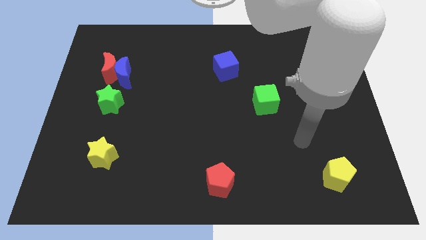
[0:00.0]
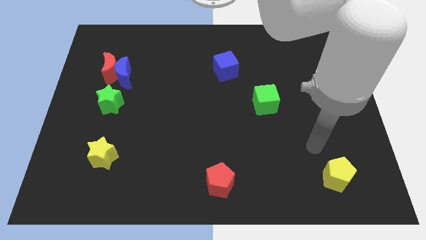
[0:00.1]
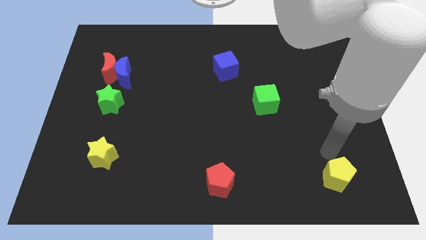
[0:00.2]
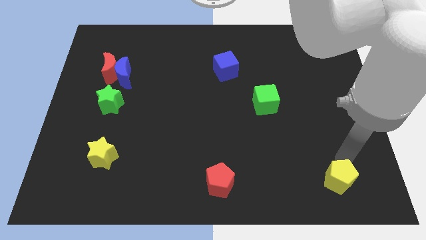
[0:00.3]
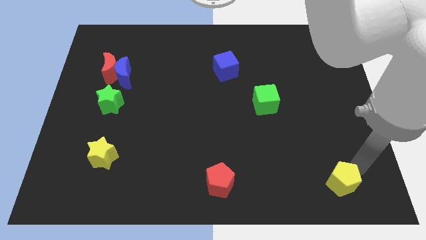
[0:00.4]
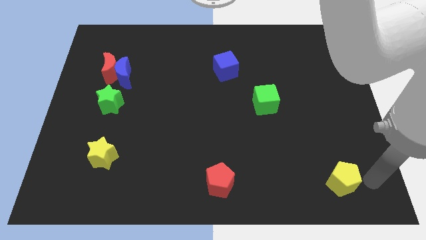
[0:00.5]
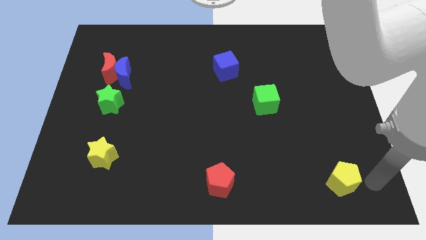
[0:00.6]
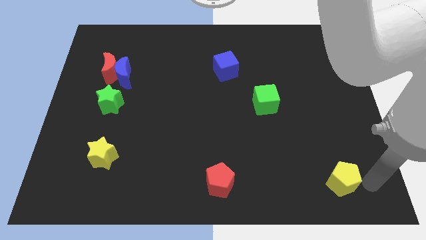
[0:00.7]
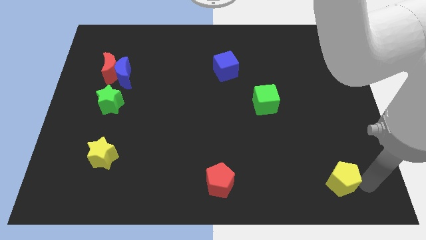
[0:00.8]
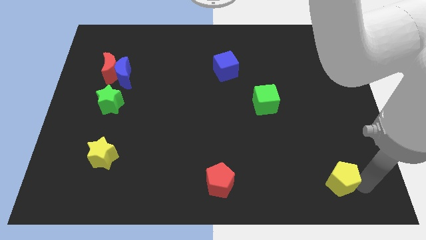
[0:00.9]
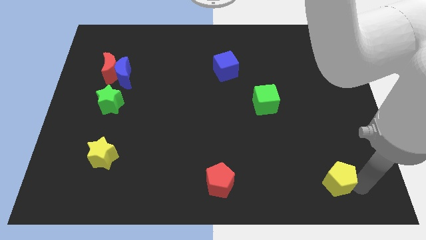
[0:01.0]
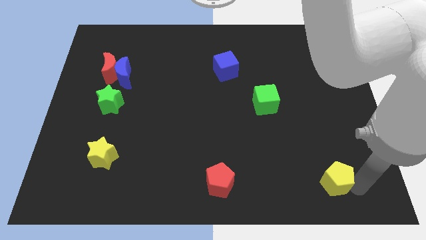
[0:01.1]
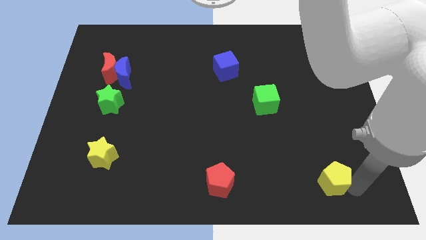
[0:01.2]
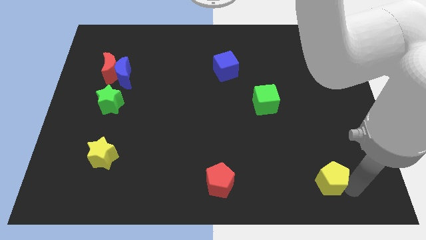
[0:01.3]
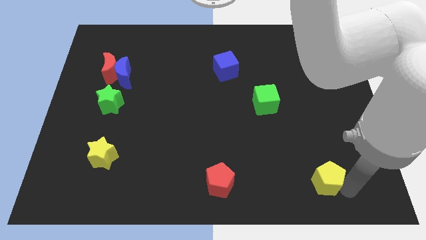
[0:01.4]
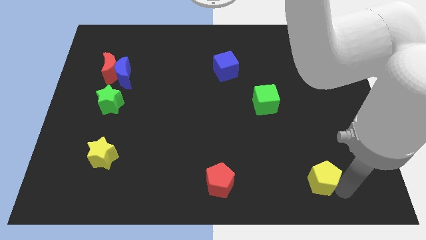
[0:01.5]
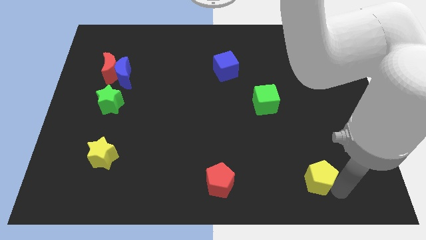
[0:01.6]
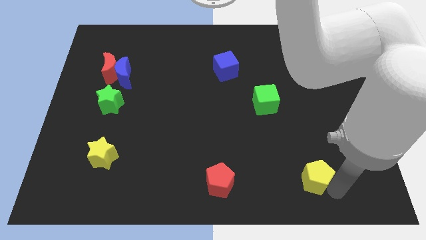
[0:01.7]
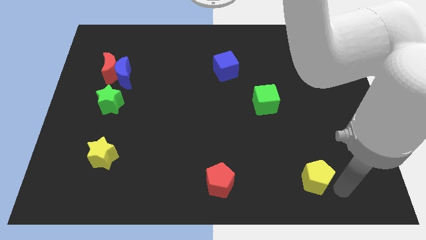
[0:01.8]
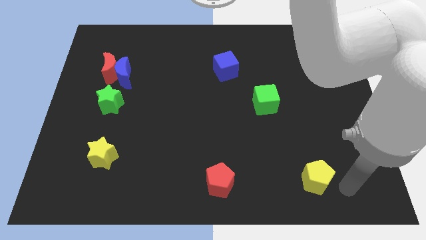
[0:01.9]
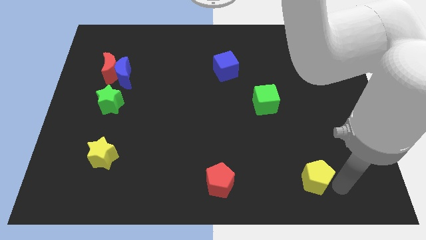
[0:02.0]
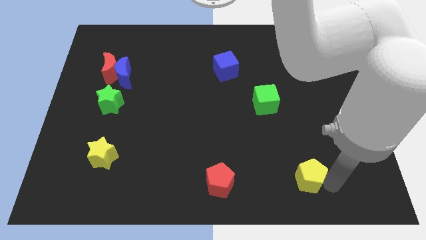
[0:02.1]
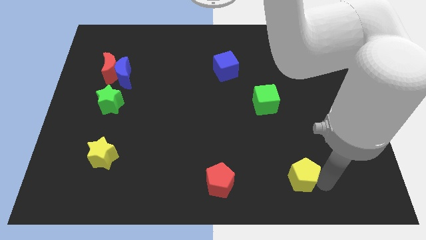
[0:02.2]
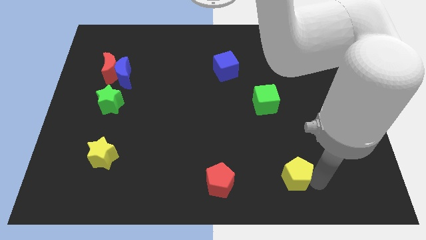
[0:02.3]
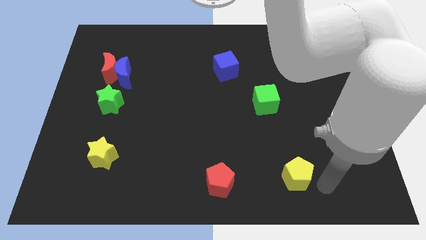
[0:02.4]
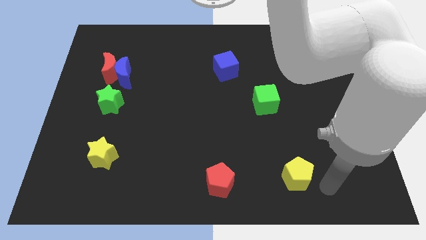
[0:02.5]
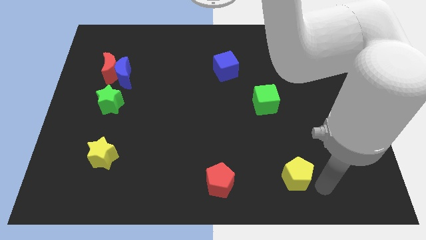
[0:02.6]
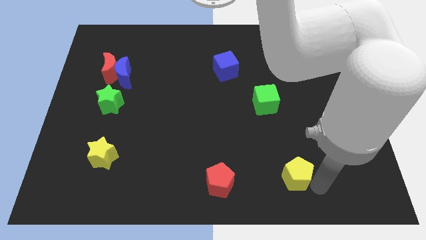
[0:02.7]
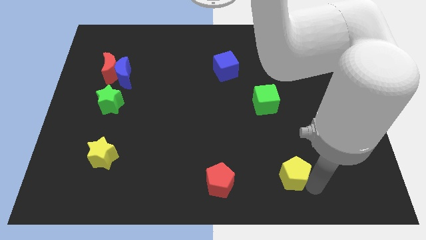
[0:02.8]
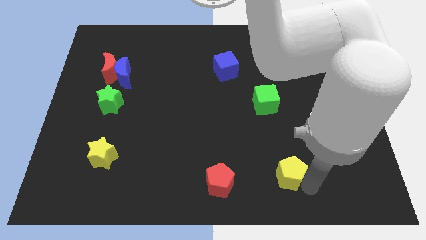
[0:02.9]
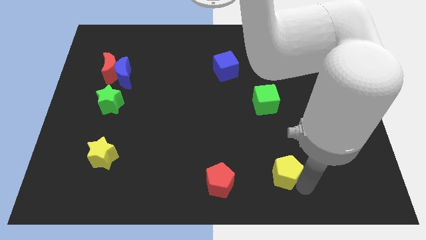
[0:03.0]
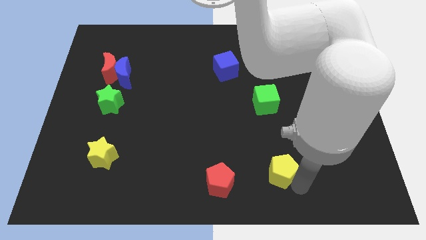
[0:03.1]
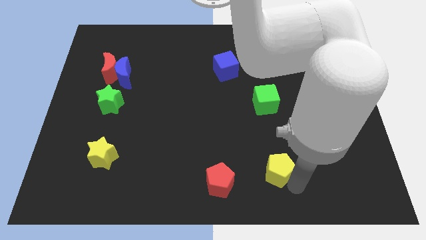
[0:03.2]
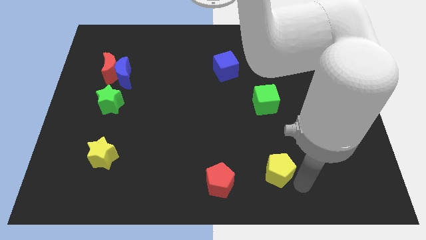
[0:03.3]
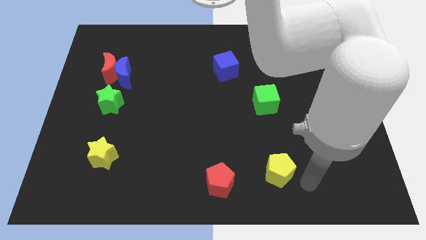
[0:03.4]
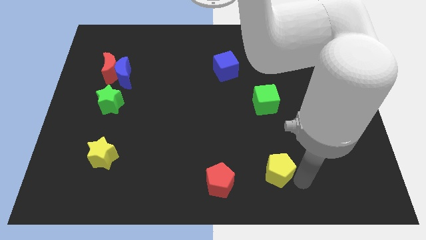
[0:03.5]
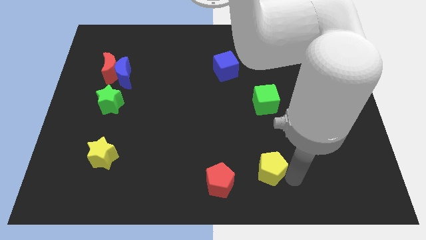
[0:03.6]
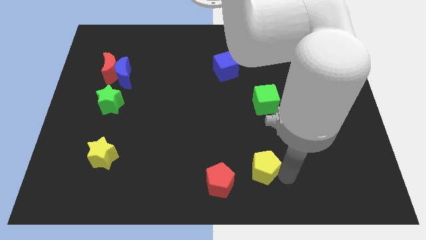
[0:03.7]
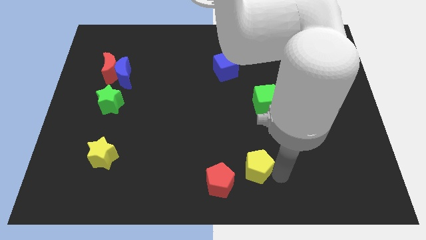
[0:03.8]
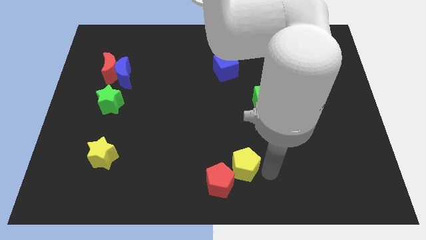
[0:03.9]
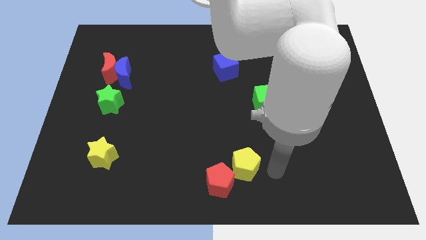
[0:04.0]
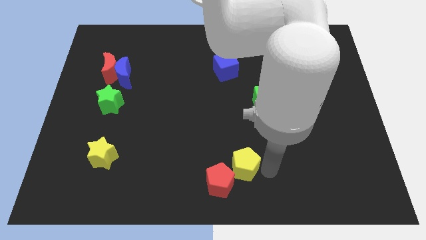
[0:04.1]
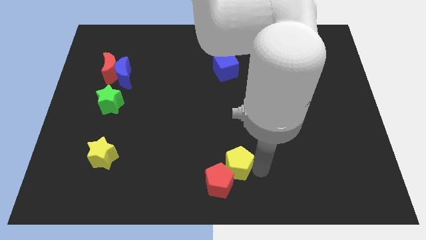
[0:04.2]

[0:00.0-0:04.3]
push the yellow pentagon left

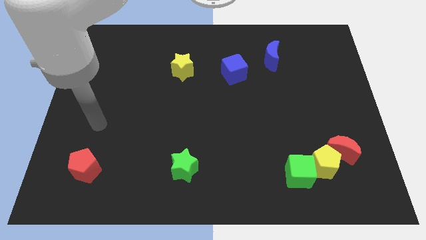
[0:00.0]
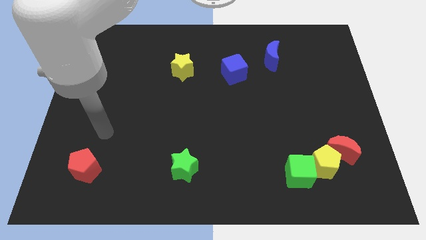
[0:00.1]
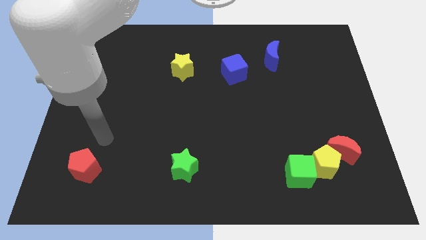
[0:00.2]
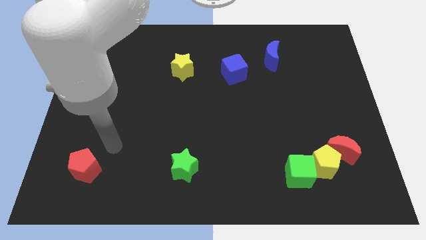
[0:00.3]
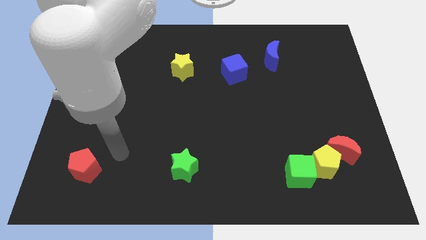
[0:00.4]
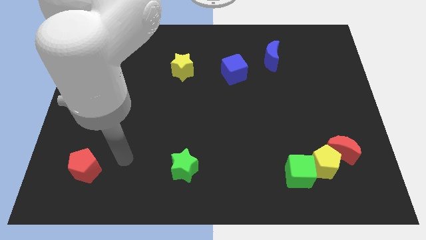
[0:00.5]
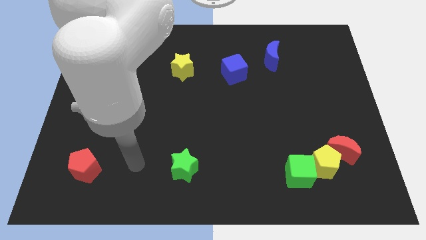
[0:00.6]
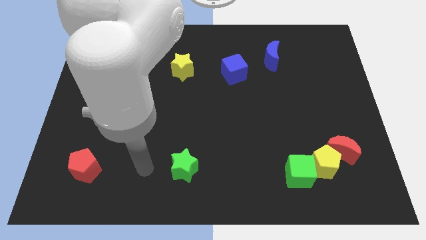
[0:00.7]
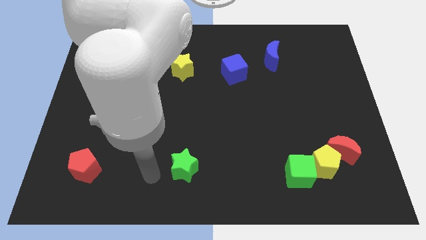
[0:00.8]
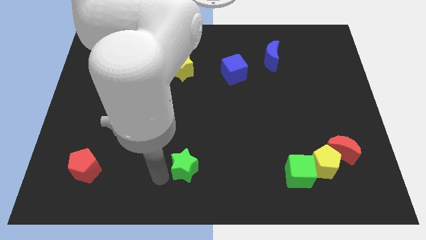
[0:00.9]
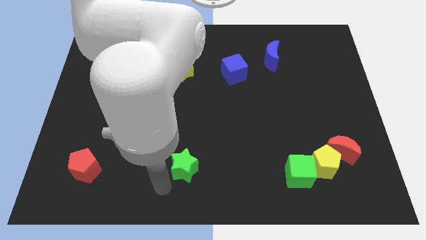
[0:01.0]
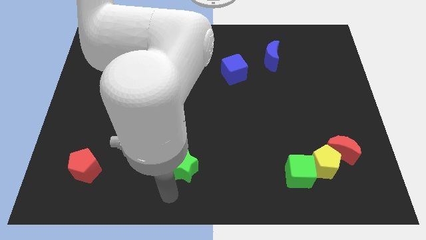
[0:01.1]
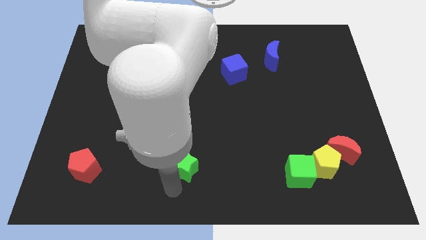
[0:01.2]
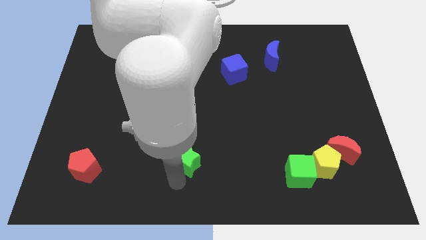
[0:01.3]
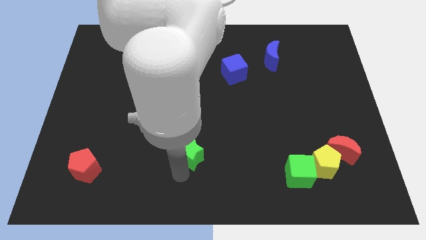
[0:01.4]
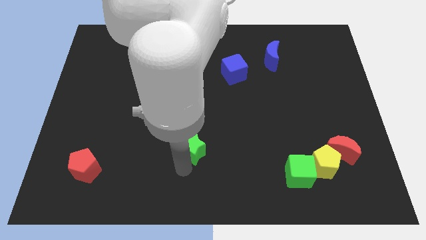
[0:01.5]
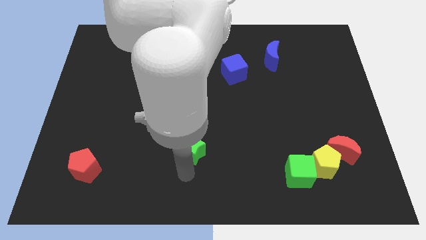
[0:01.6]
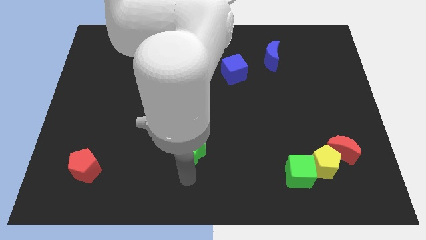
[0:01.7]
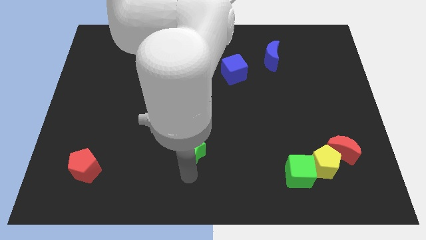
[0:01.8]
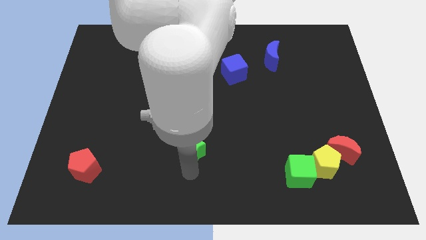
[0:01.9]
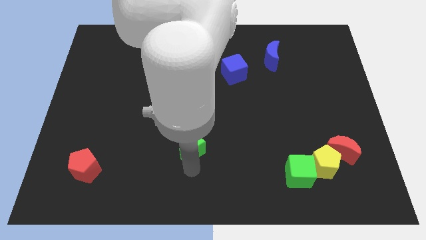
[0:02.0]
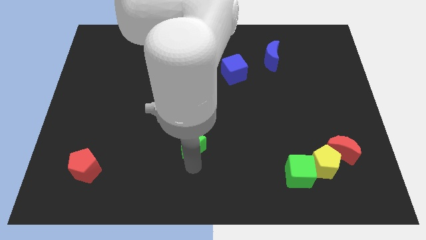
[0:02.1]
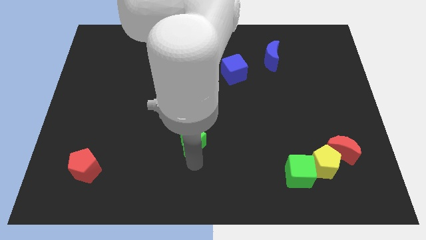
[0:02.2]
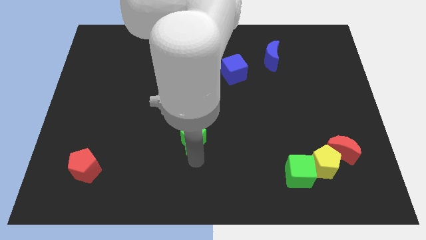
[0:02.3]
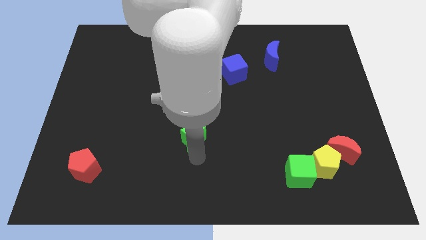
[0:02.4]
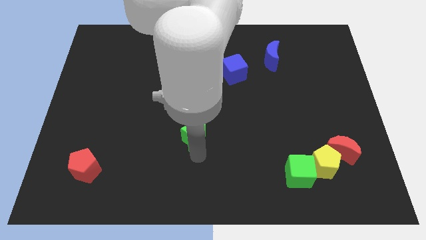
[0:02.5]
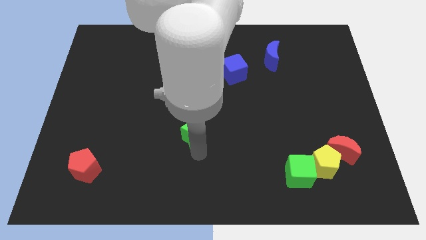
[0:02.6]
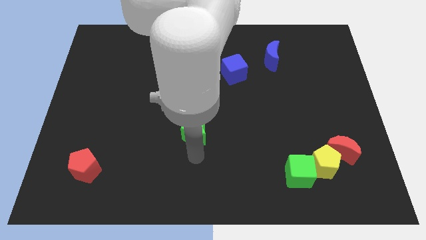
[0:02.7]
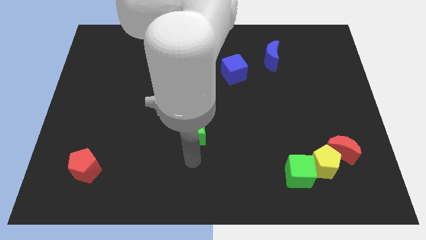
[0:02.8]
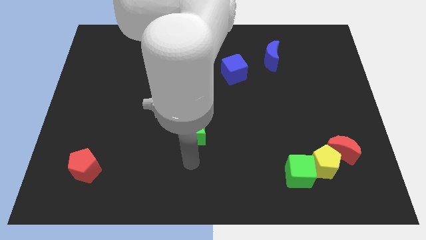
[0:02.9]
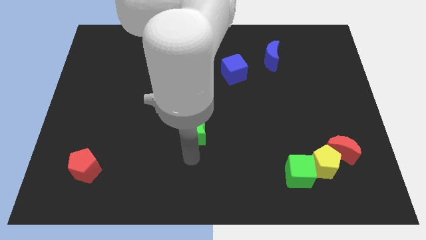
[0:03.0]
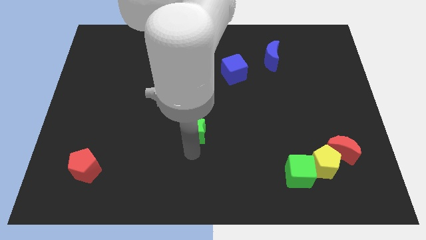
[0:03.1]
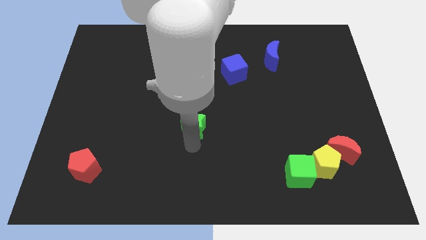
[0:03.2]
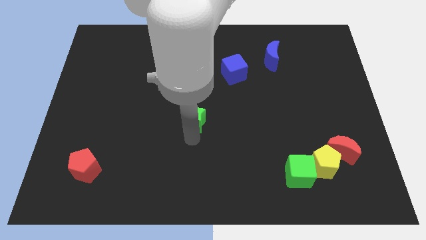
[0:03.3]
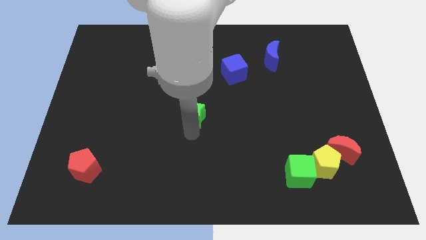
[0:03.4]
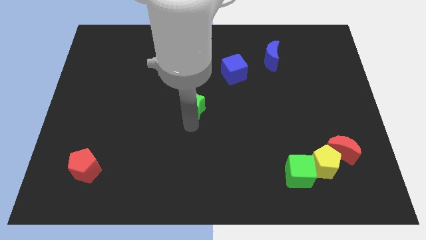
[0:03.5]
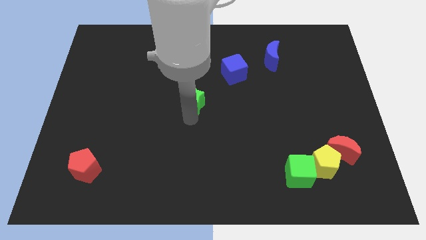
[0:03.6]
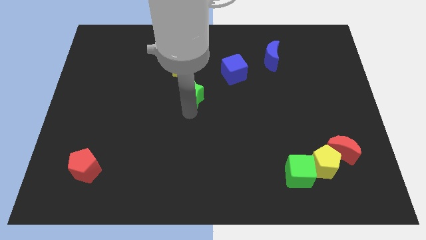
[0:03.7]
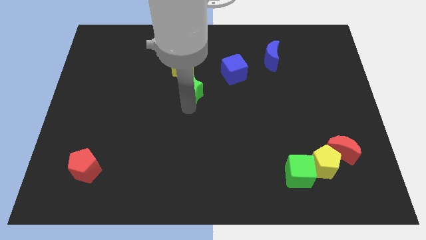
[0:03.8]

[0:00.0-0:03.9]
slide the green star upwards

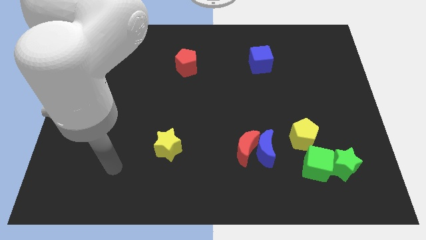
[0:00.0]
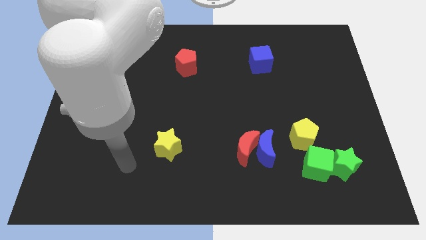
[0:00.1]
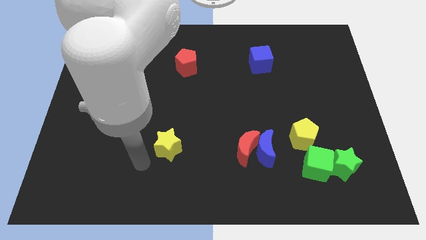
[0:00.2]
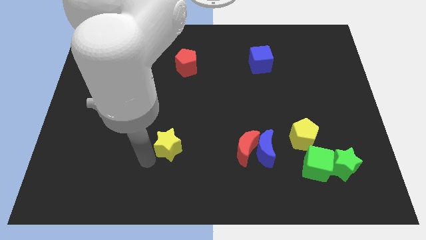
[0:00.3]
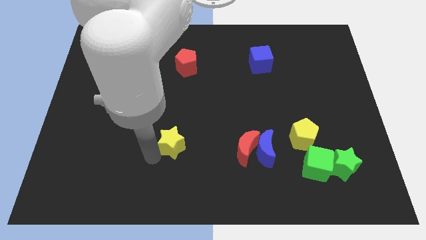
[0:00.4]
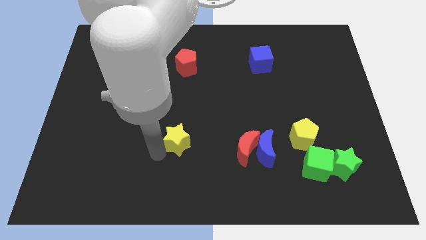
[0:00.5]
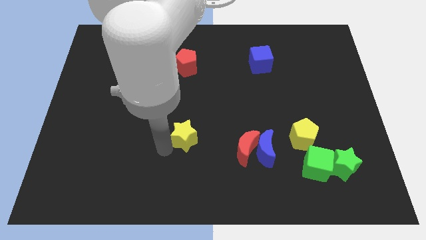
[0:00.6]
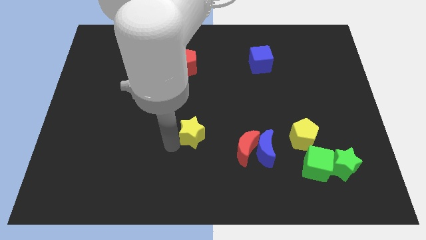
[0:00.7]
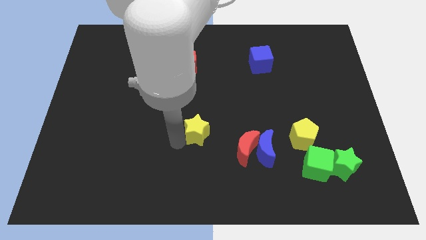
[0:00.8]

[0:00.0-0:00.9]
move the yellow star a bit up and then to the right
